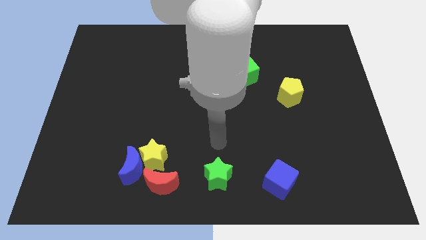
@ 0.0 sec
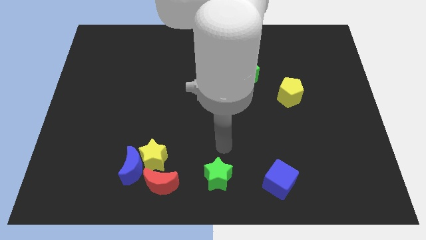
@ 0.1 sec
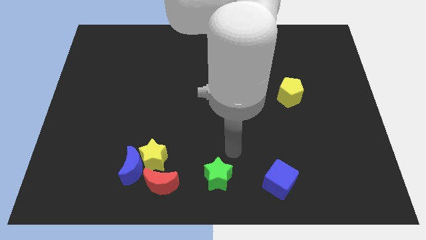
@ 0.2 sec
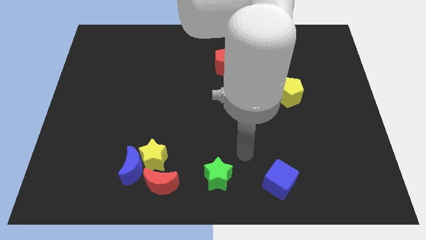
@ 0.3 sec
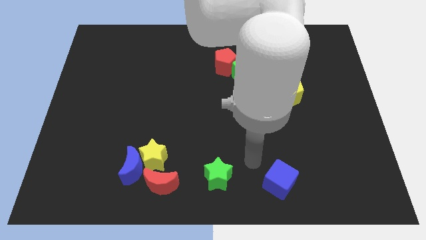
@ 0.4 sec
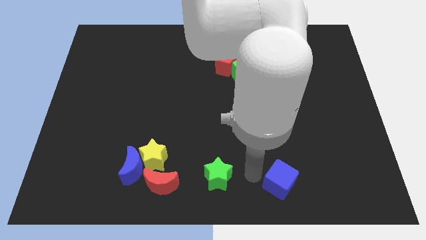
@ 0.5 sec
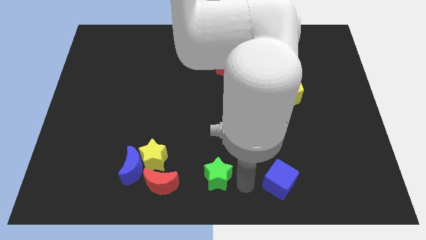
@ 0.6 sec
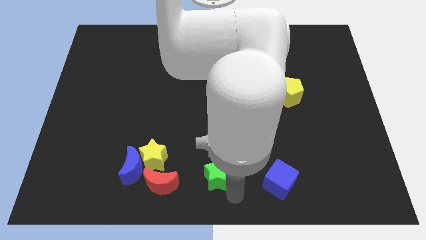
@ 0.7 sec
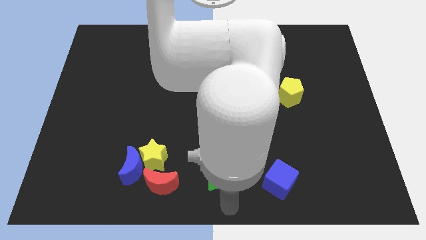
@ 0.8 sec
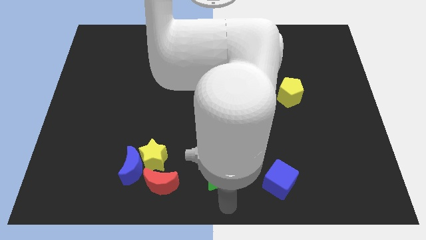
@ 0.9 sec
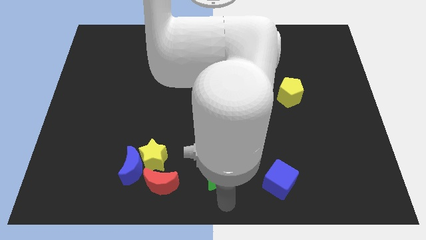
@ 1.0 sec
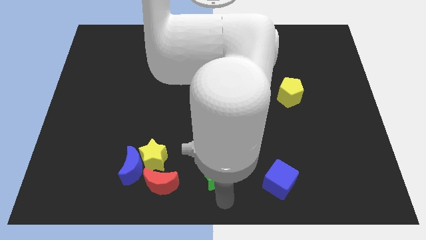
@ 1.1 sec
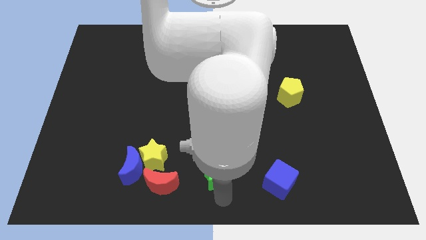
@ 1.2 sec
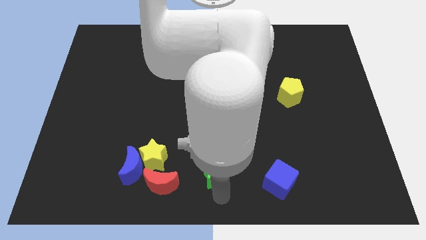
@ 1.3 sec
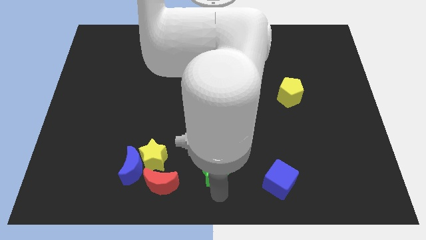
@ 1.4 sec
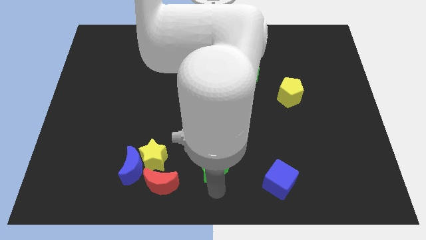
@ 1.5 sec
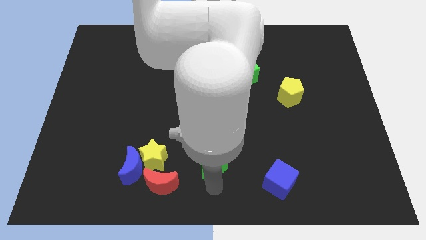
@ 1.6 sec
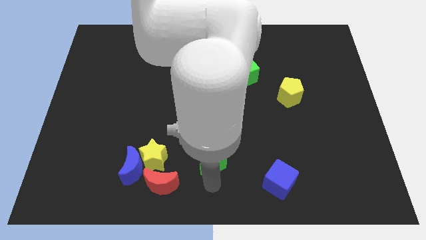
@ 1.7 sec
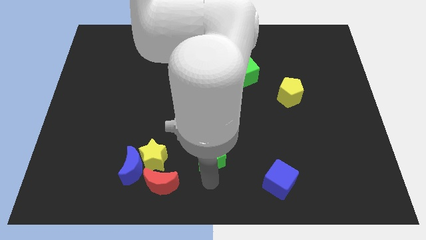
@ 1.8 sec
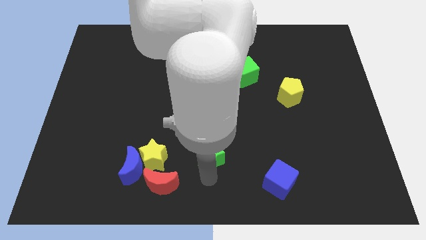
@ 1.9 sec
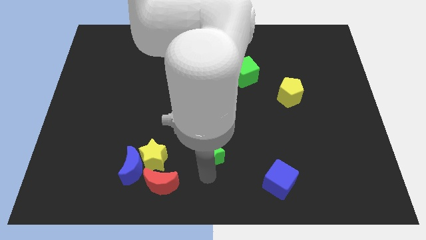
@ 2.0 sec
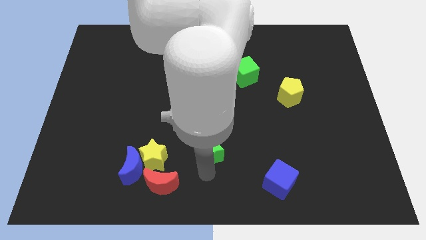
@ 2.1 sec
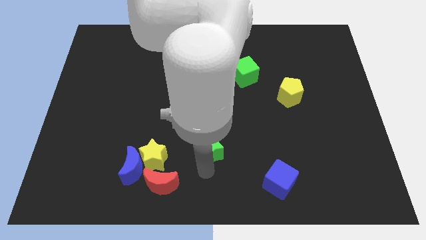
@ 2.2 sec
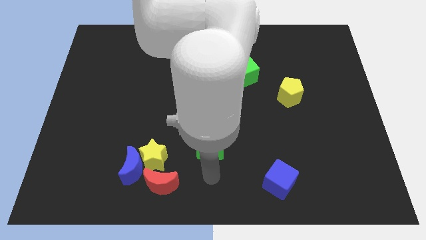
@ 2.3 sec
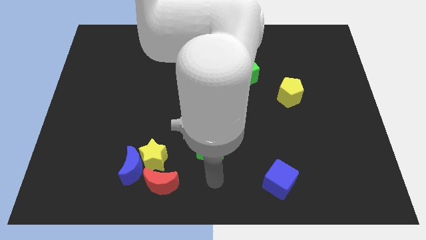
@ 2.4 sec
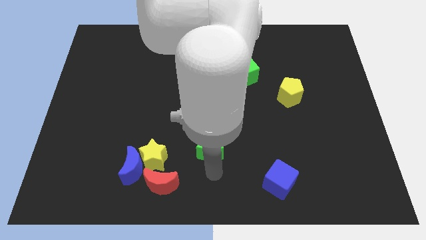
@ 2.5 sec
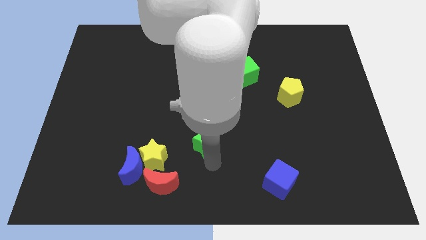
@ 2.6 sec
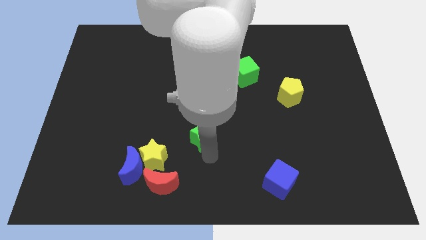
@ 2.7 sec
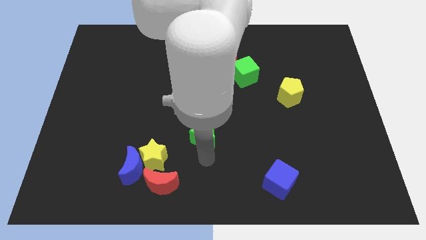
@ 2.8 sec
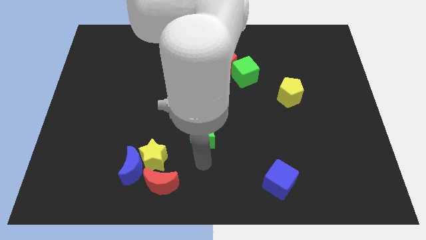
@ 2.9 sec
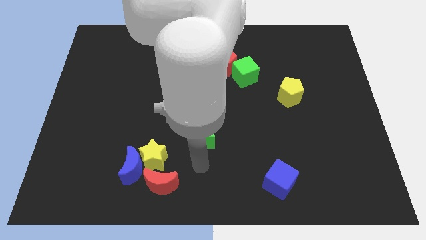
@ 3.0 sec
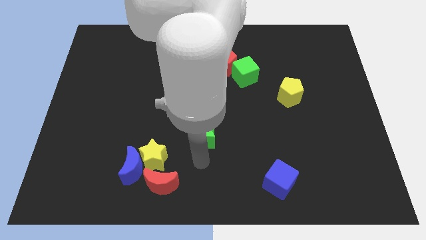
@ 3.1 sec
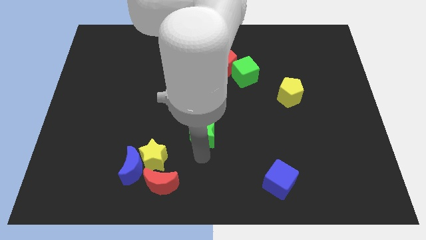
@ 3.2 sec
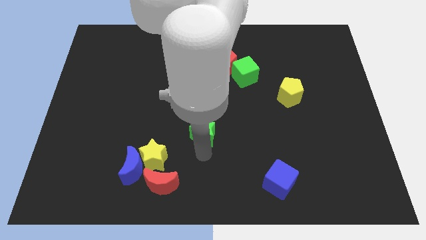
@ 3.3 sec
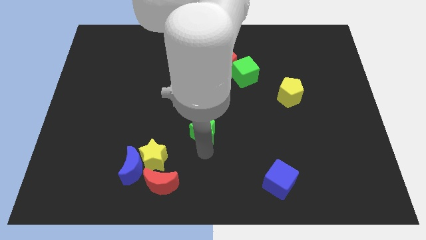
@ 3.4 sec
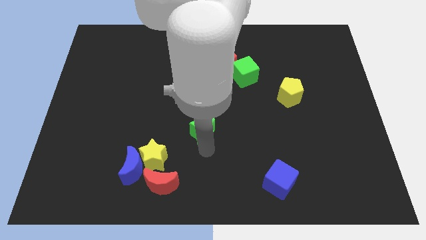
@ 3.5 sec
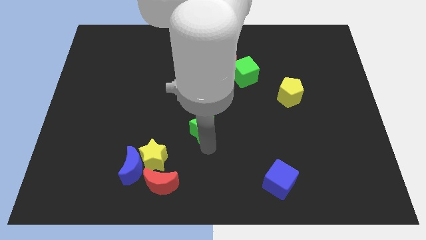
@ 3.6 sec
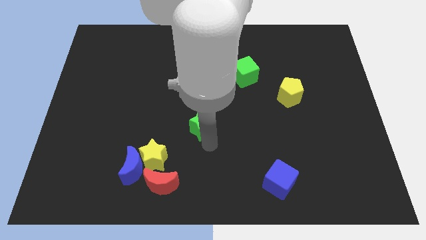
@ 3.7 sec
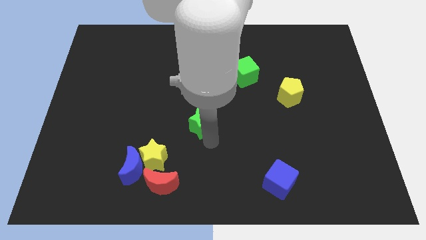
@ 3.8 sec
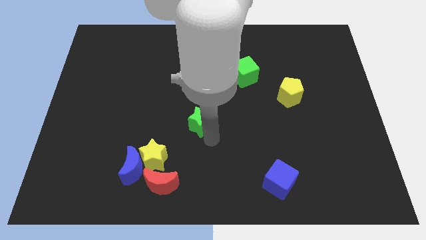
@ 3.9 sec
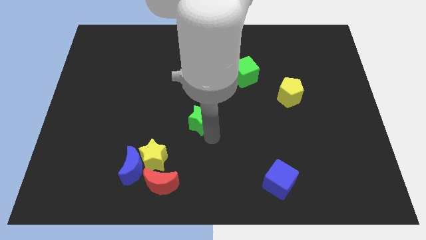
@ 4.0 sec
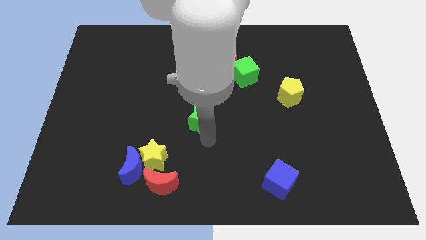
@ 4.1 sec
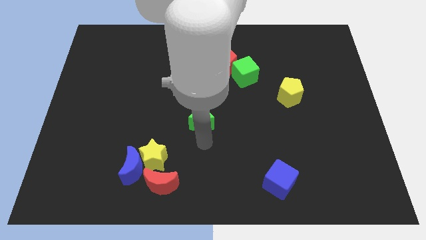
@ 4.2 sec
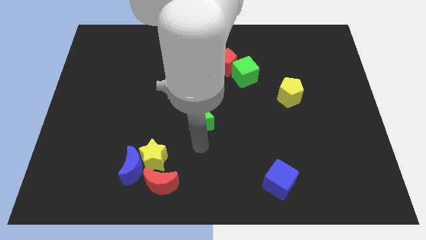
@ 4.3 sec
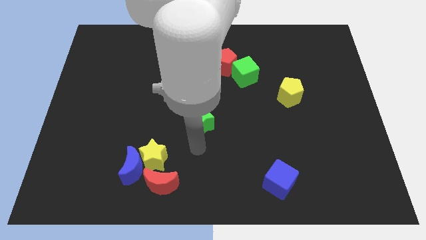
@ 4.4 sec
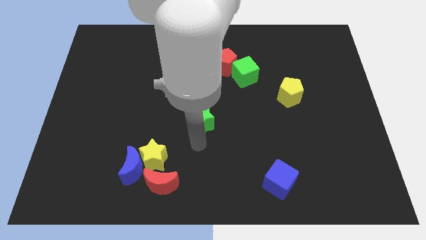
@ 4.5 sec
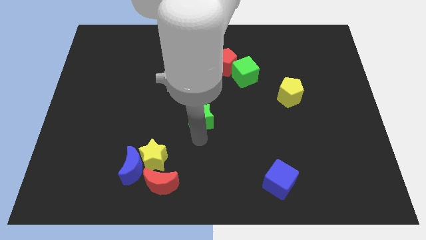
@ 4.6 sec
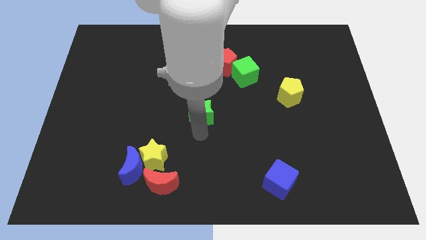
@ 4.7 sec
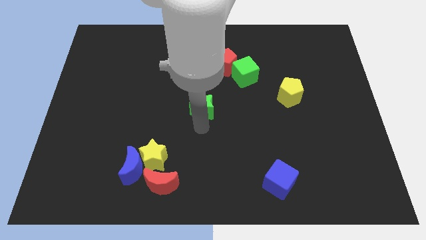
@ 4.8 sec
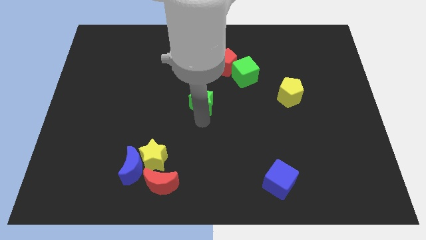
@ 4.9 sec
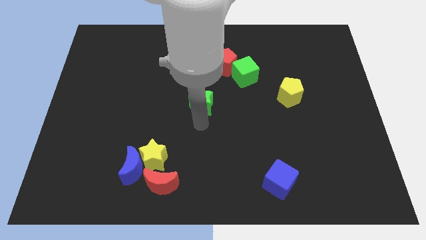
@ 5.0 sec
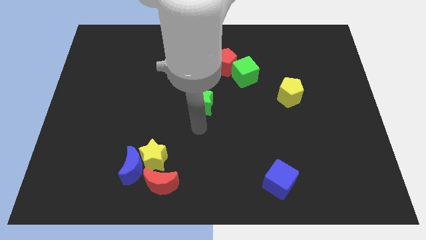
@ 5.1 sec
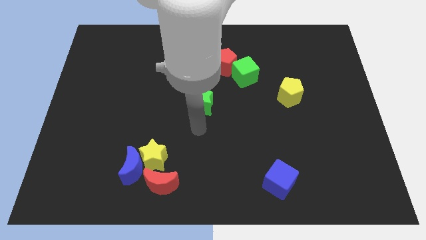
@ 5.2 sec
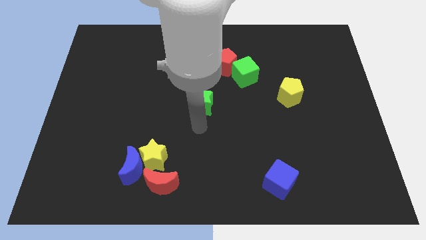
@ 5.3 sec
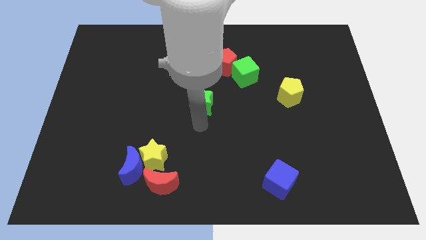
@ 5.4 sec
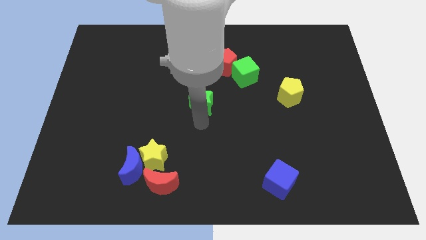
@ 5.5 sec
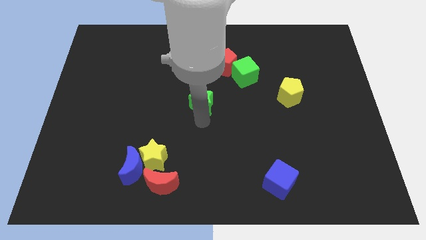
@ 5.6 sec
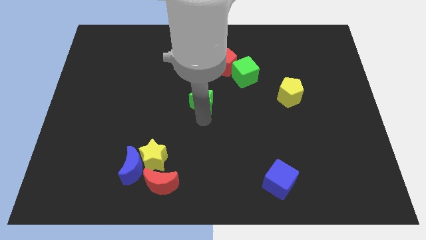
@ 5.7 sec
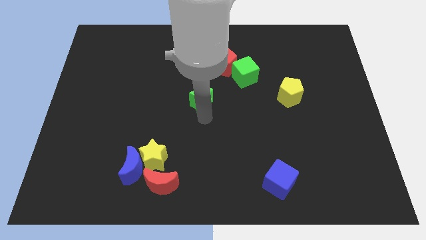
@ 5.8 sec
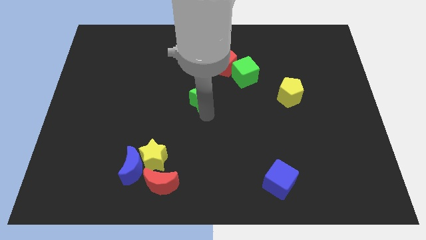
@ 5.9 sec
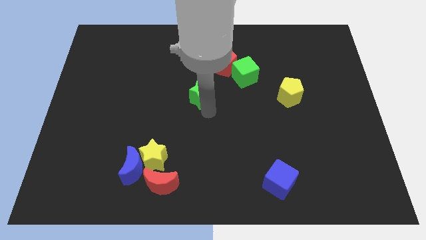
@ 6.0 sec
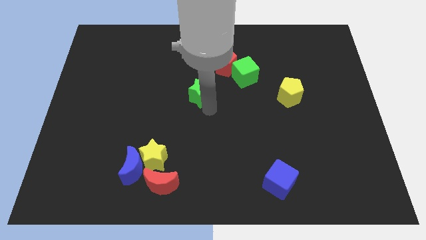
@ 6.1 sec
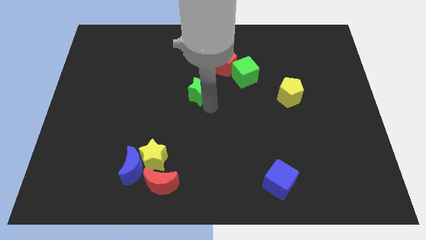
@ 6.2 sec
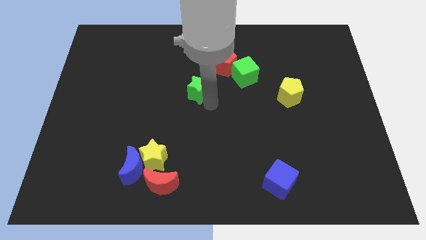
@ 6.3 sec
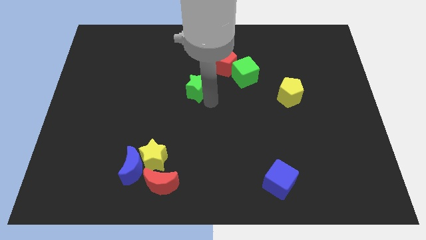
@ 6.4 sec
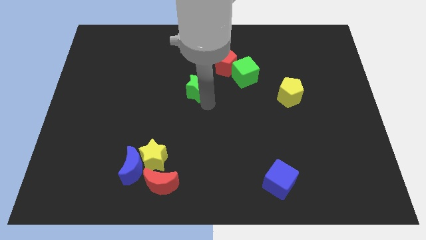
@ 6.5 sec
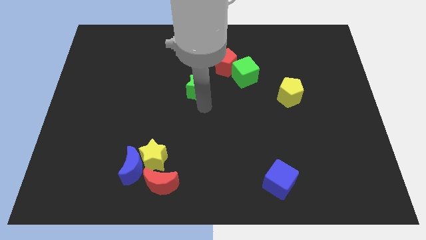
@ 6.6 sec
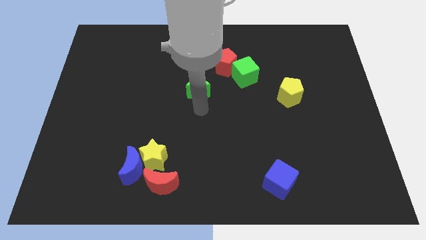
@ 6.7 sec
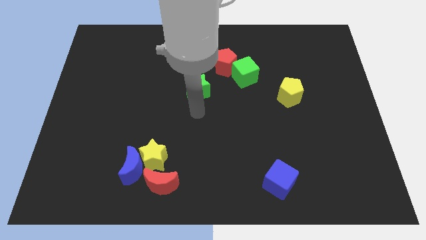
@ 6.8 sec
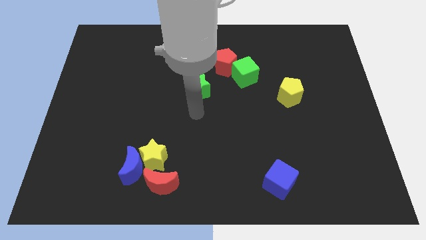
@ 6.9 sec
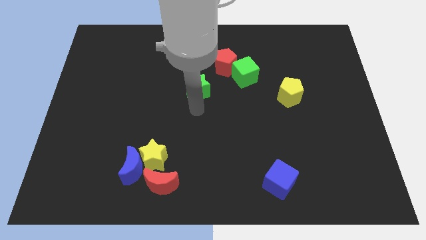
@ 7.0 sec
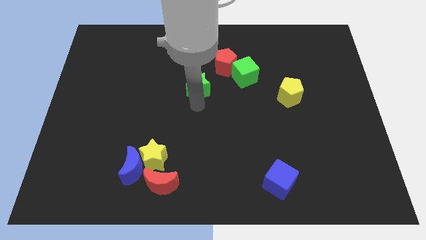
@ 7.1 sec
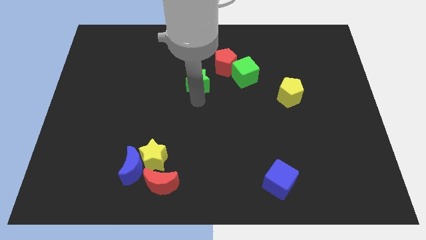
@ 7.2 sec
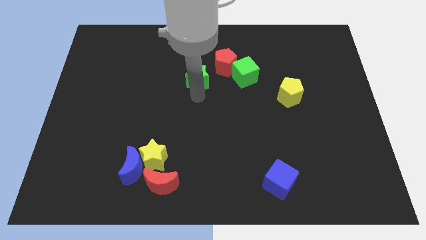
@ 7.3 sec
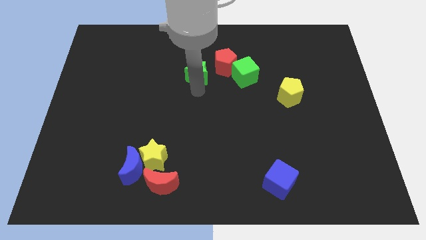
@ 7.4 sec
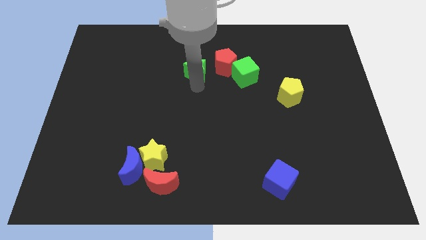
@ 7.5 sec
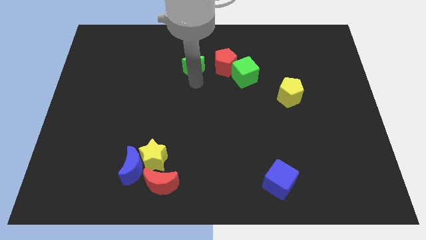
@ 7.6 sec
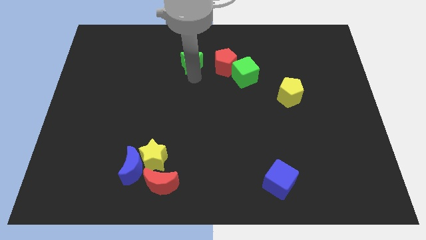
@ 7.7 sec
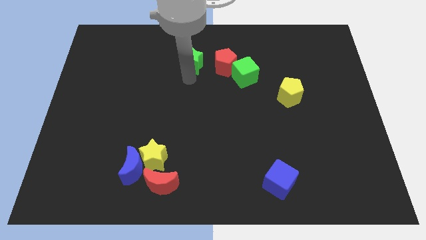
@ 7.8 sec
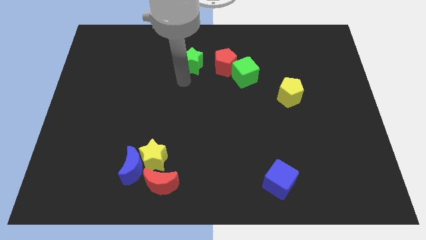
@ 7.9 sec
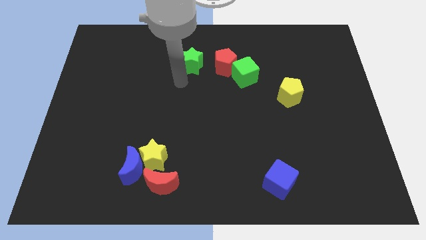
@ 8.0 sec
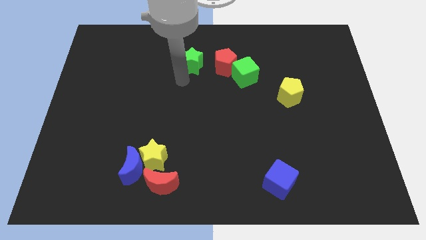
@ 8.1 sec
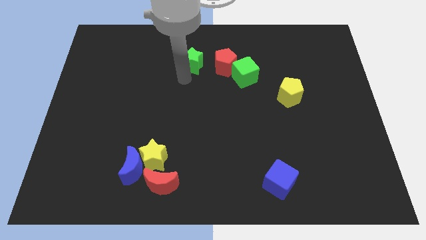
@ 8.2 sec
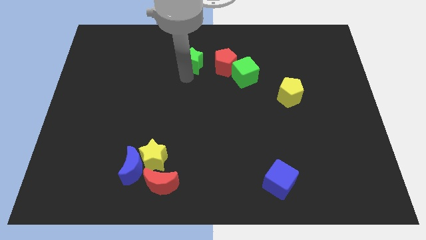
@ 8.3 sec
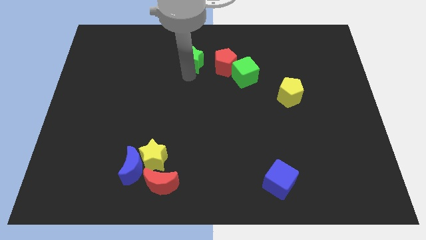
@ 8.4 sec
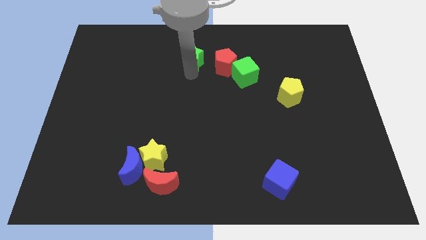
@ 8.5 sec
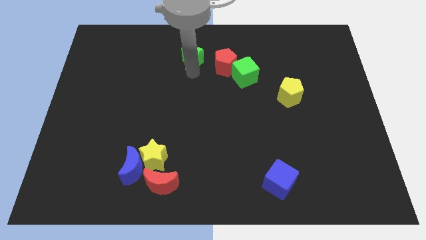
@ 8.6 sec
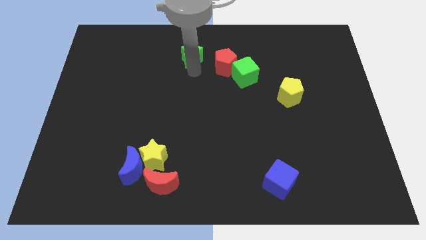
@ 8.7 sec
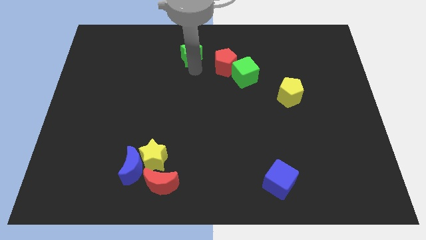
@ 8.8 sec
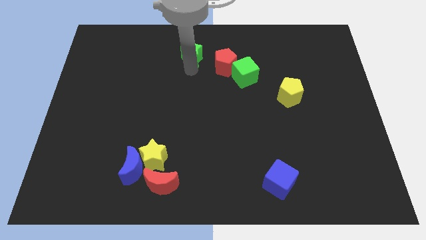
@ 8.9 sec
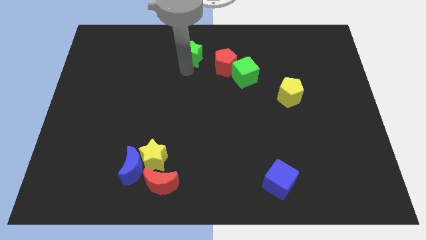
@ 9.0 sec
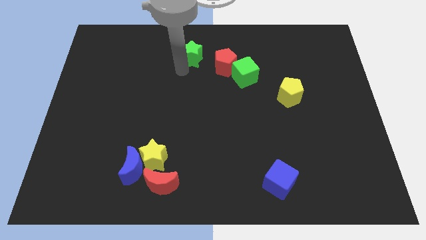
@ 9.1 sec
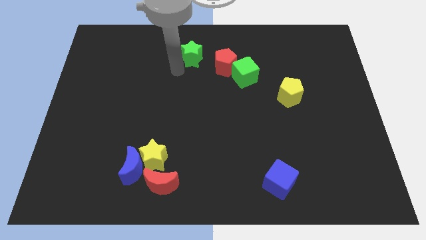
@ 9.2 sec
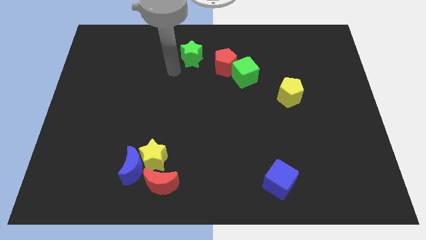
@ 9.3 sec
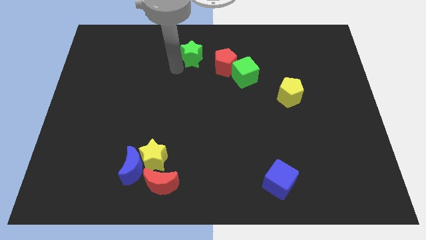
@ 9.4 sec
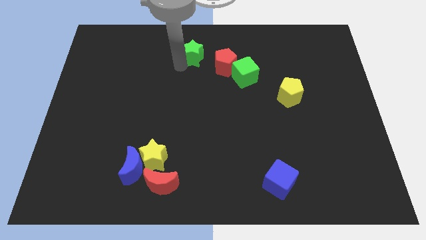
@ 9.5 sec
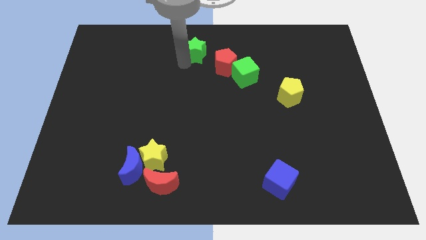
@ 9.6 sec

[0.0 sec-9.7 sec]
push the green star to the towards your base
